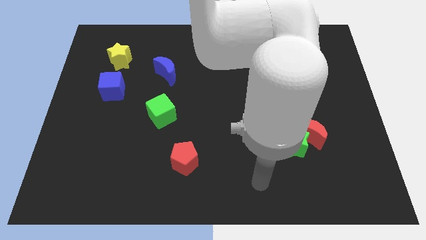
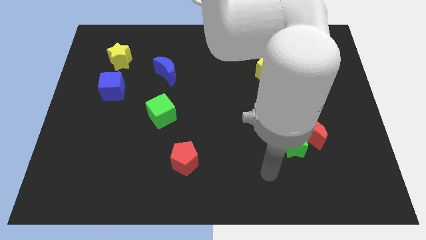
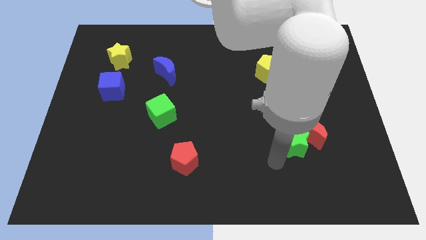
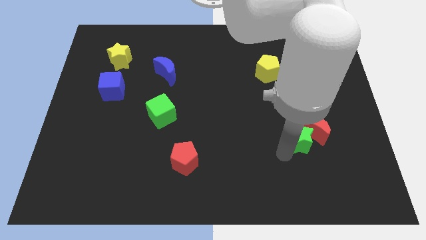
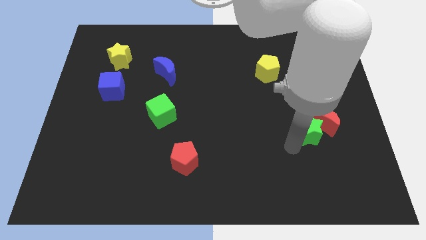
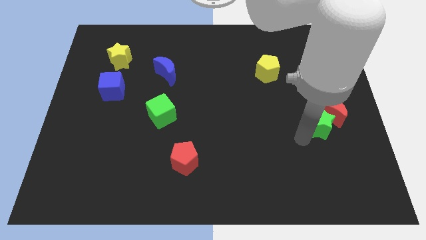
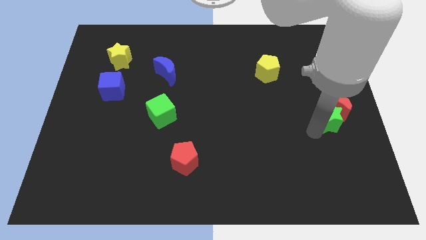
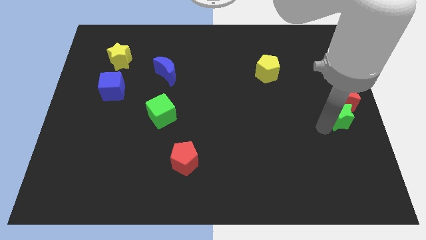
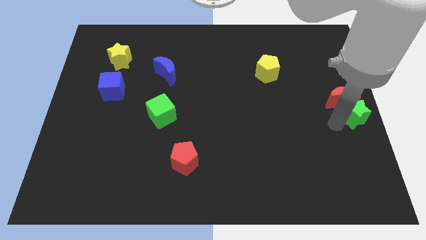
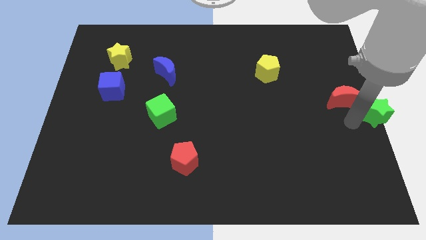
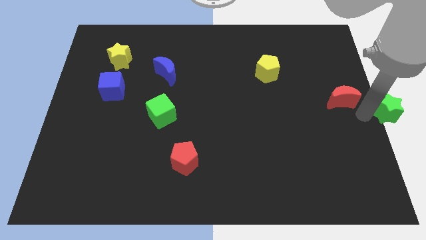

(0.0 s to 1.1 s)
move the red moon away from the green star

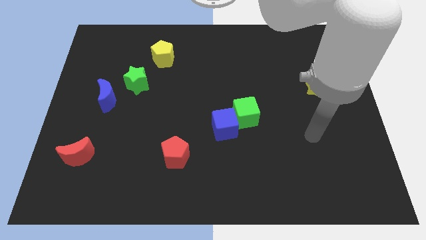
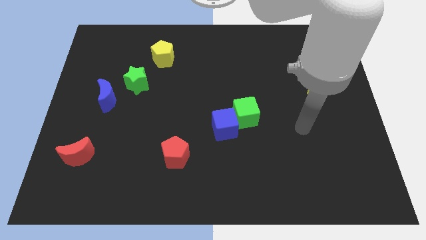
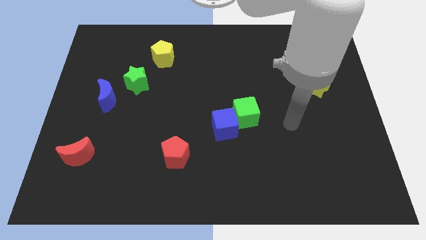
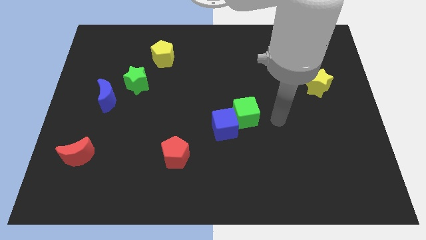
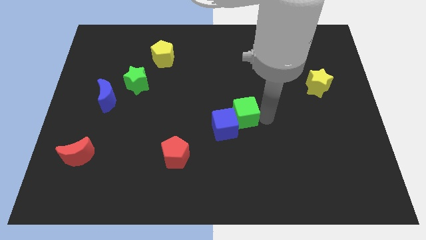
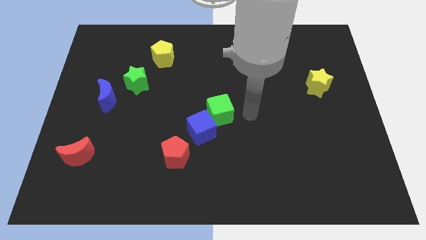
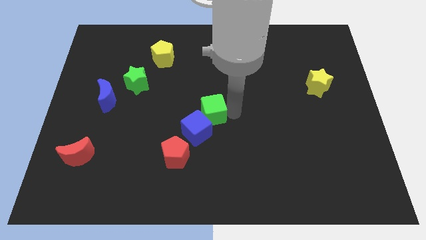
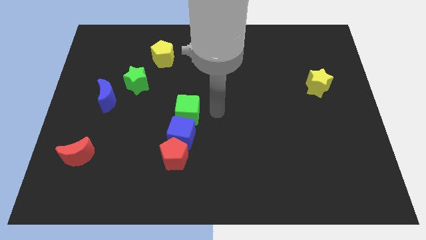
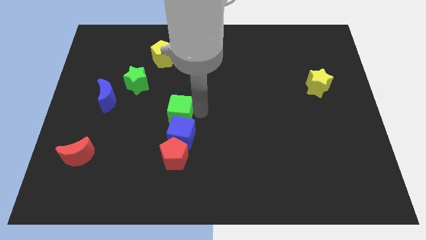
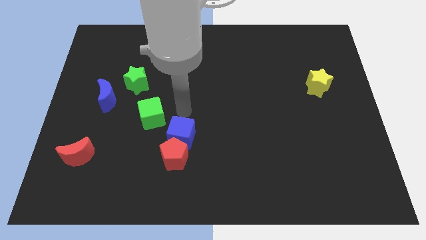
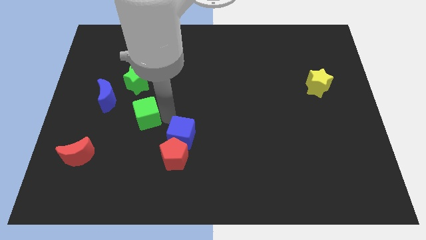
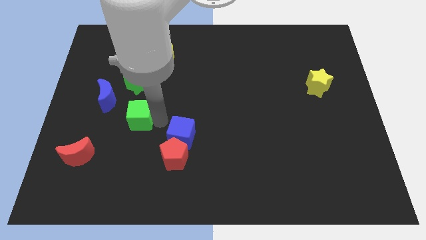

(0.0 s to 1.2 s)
move the blue cube away from the green cube

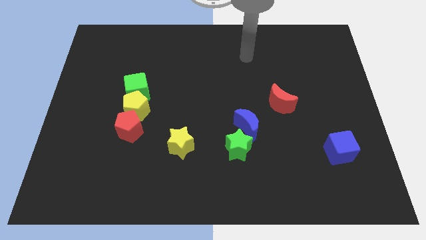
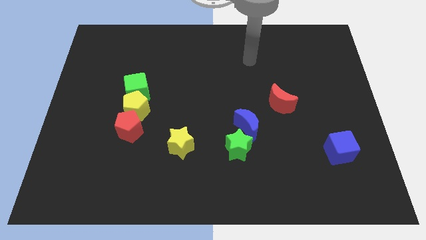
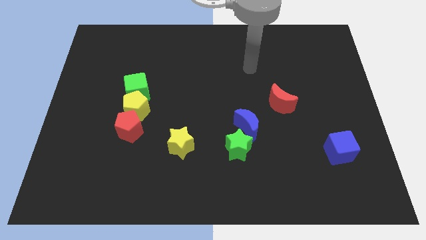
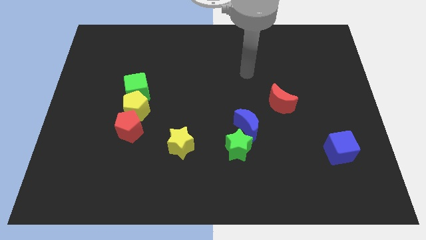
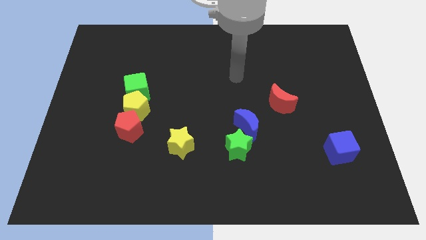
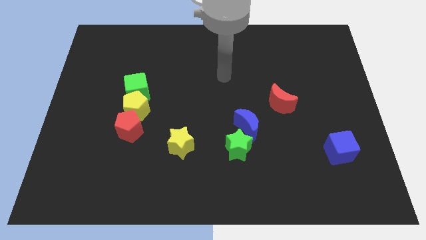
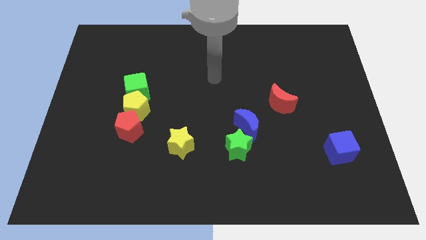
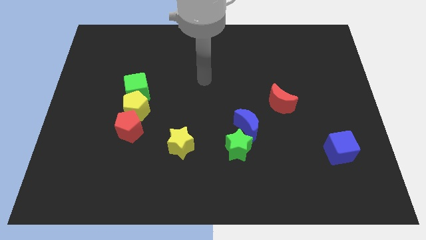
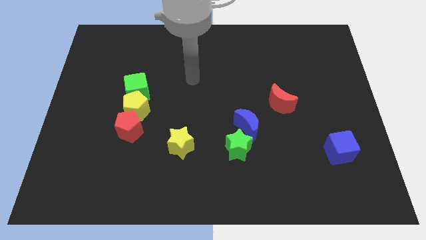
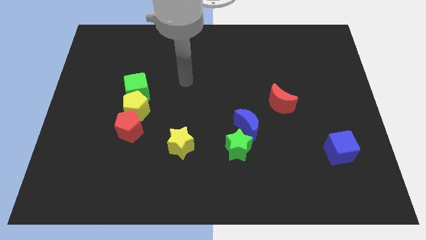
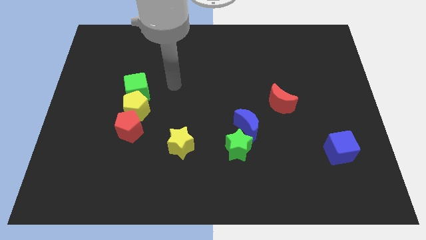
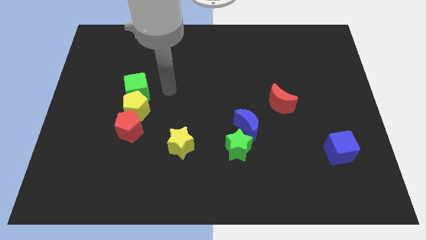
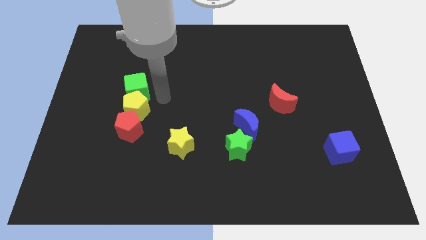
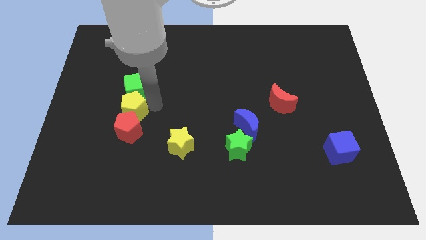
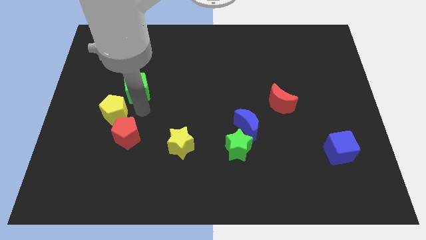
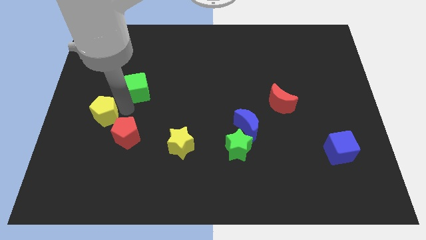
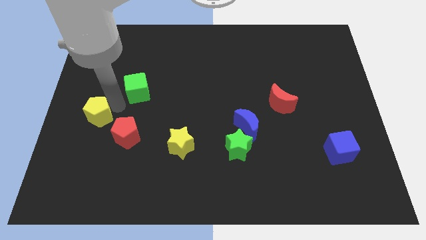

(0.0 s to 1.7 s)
separate the green cube from the yellow pentagon

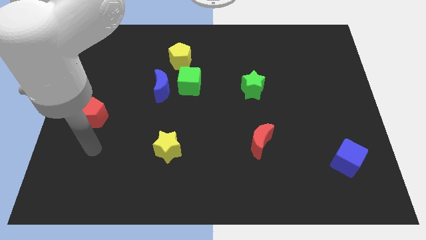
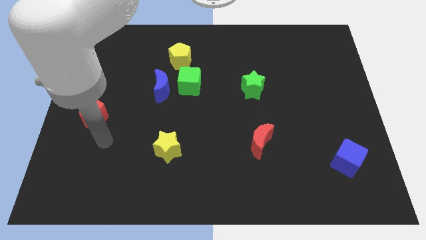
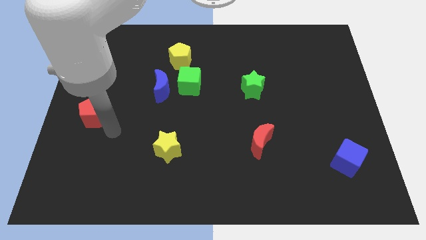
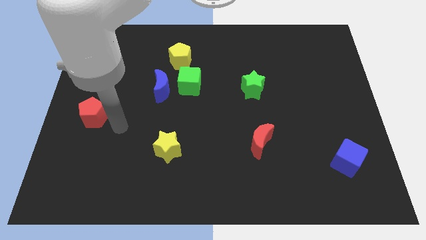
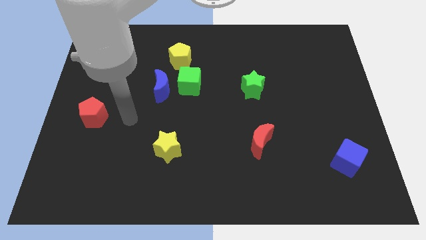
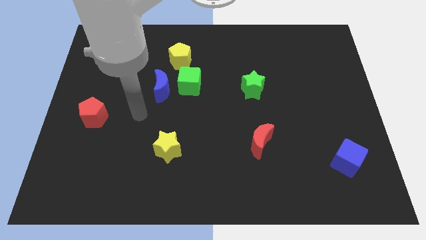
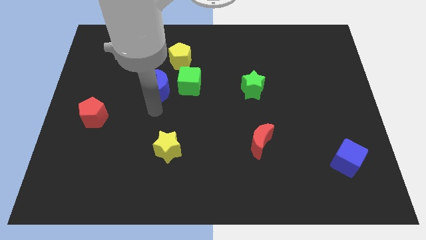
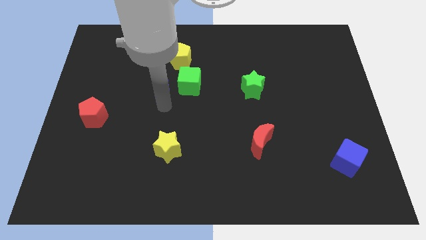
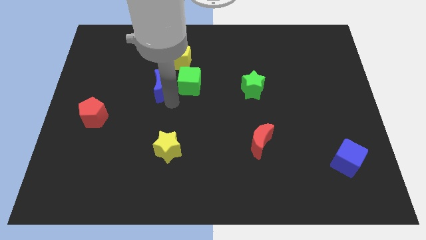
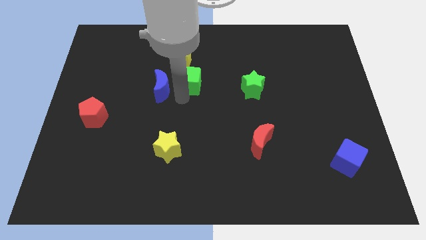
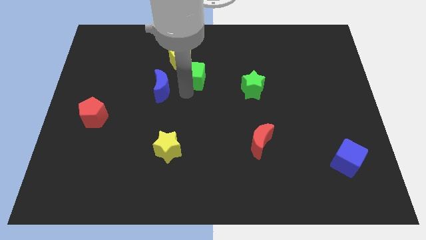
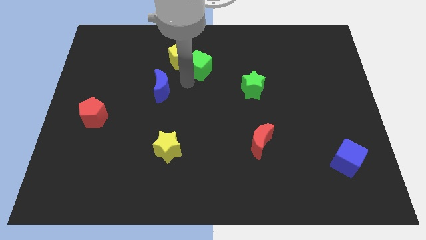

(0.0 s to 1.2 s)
separate the blue moon from the green cube

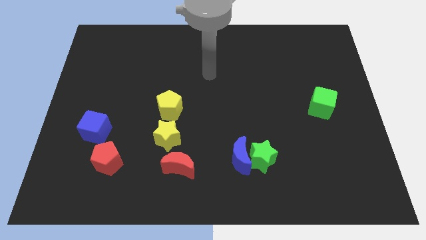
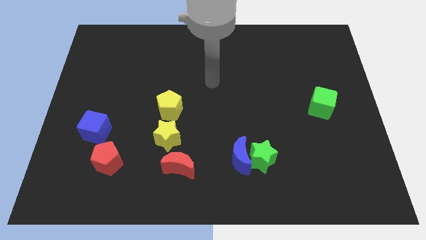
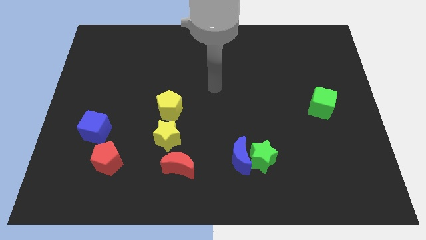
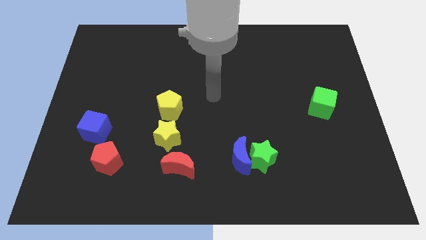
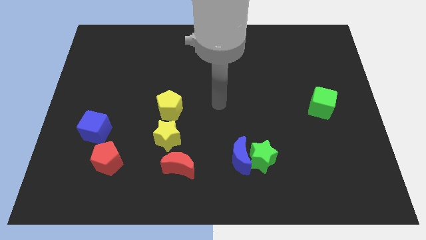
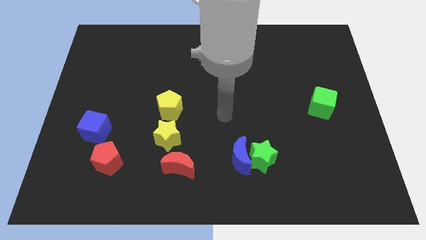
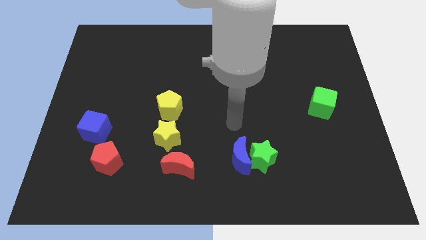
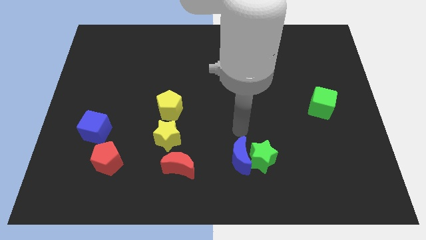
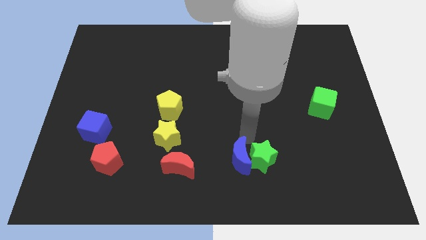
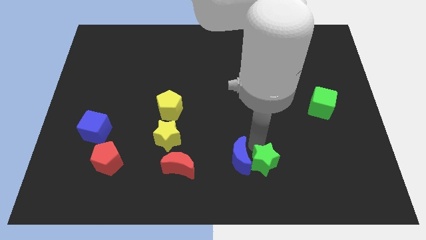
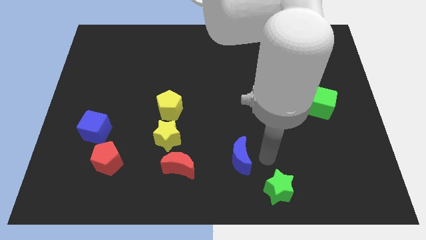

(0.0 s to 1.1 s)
pull the blue moon apart from the green star

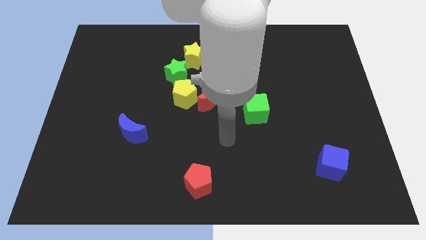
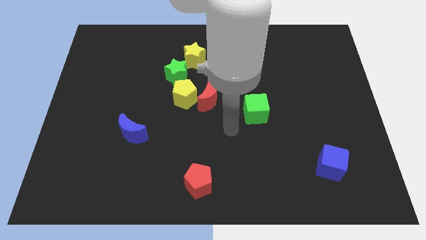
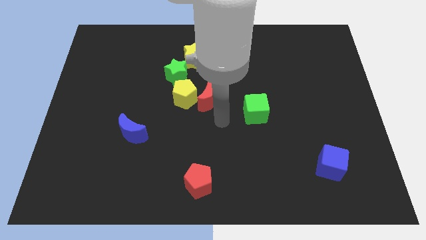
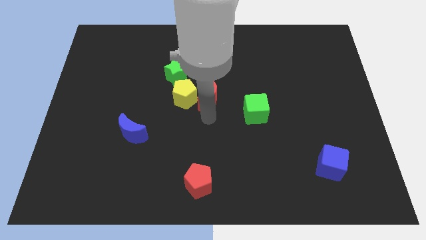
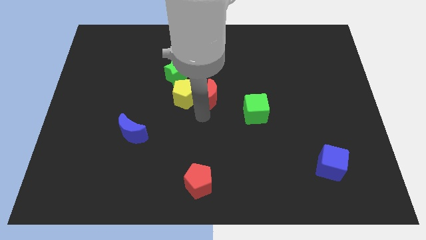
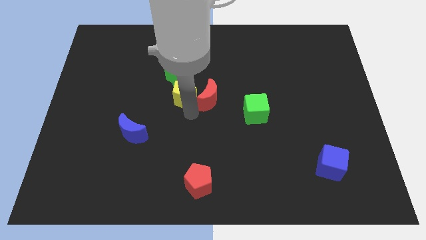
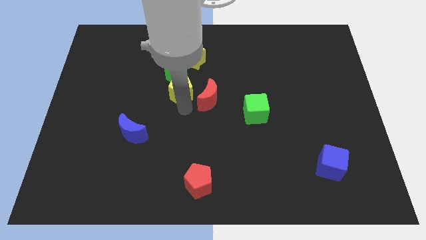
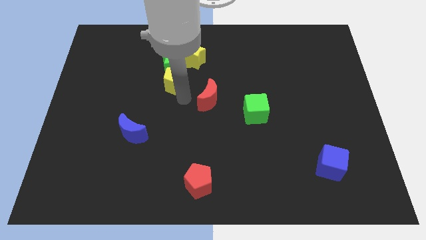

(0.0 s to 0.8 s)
move the red moon away from the yellow pentagon

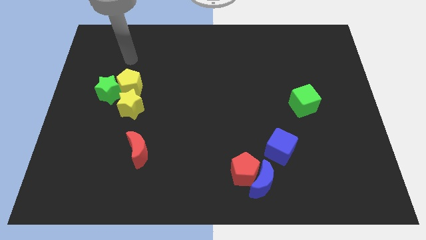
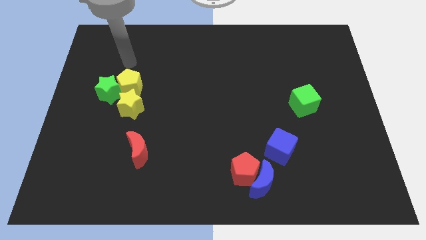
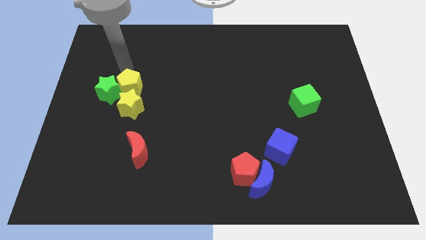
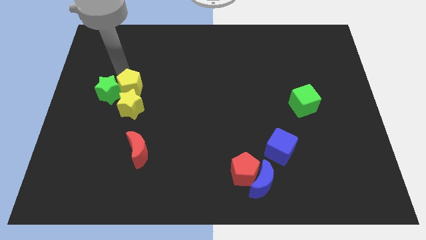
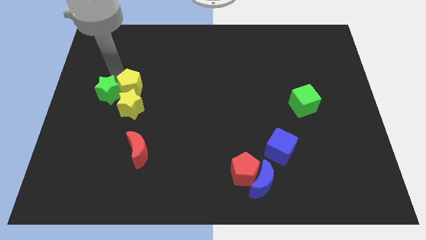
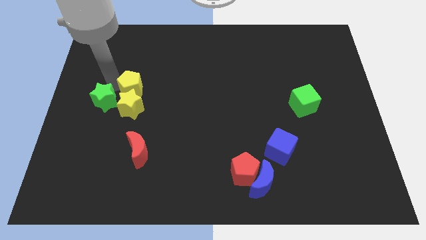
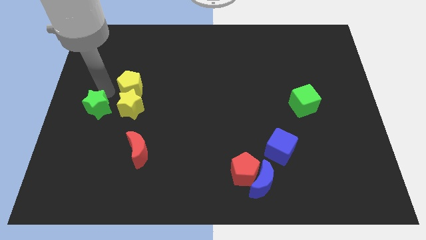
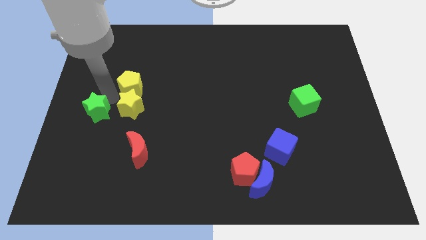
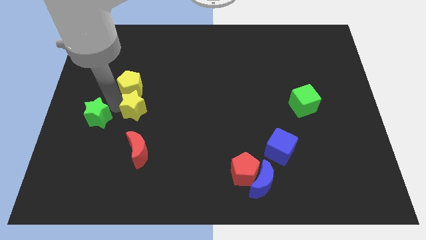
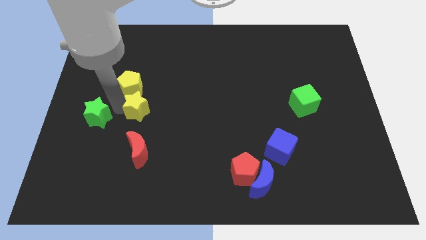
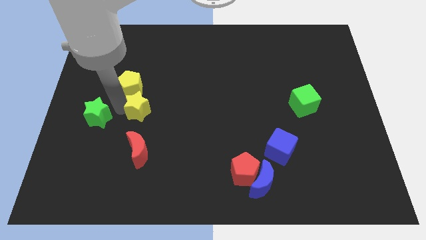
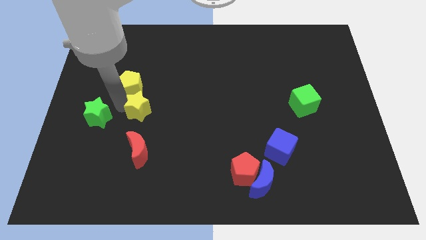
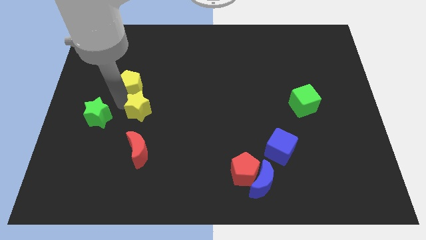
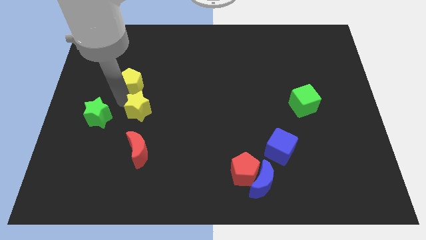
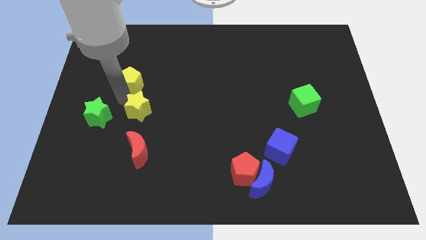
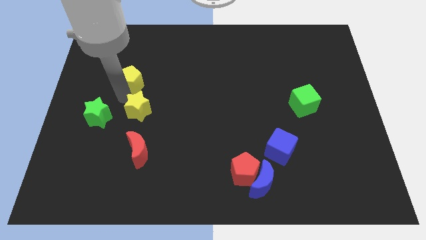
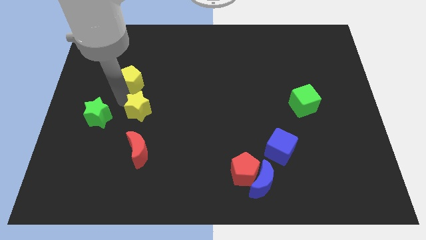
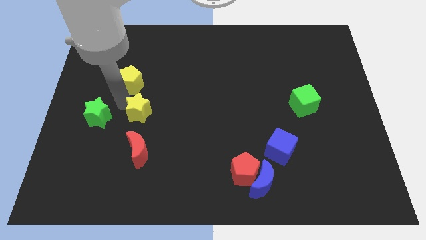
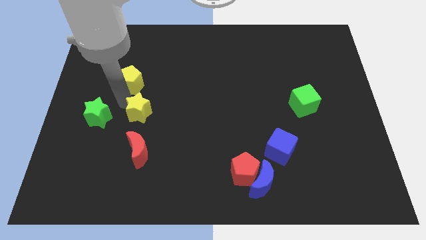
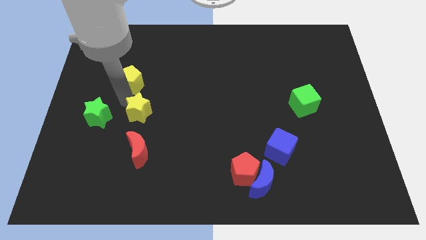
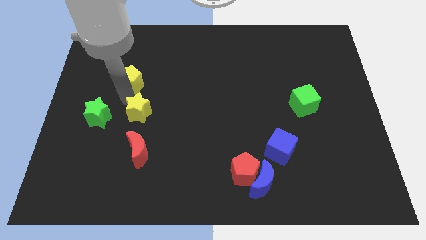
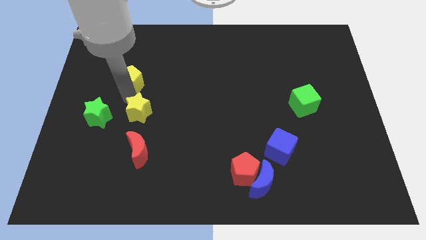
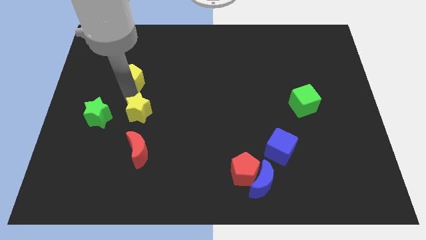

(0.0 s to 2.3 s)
pull the yellow pentagon apart from the green star and yellow star
